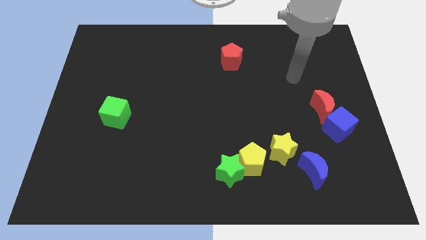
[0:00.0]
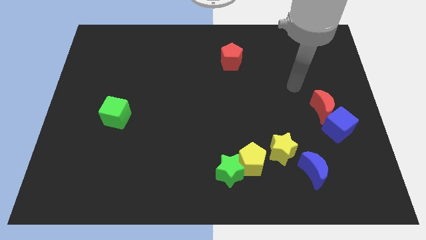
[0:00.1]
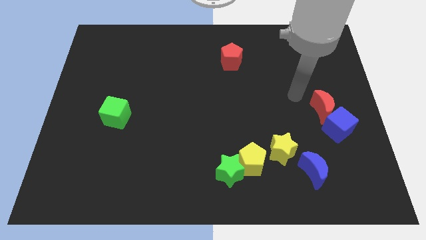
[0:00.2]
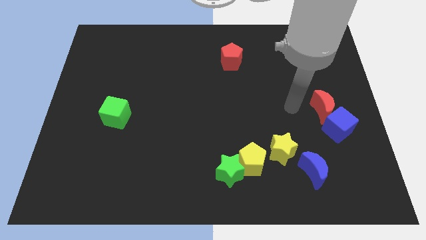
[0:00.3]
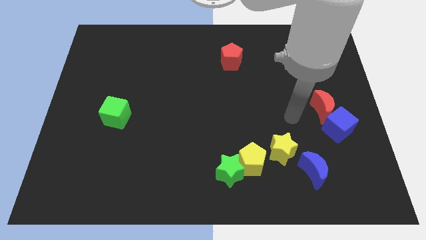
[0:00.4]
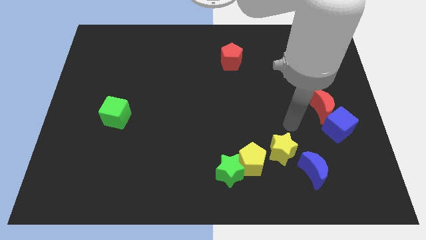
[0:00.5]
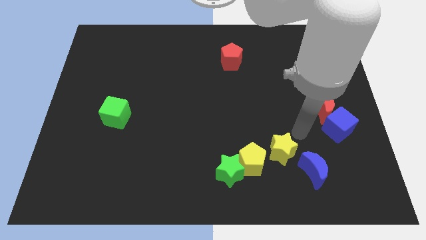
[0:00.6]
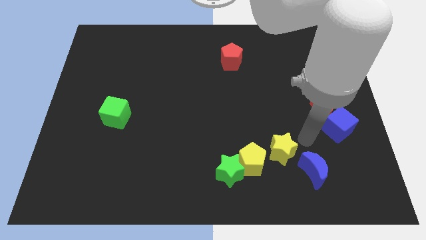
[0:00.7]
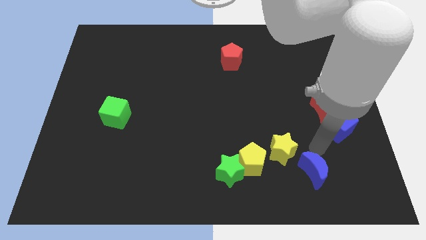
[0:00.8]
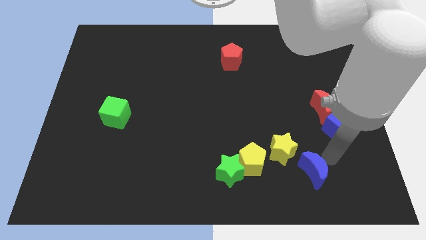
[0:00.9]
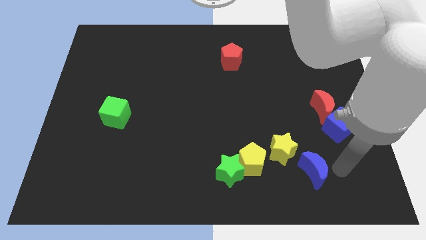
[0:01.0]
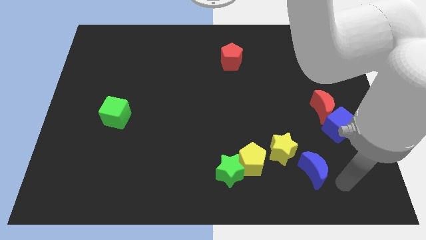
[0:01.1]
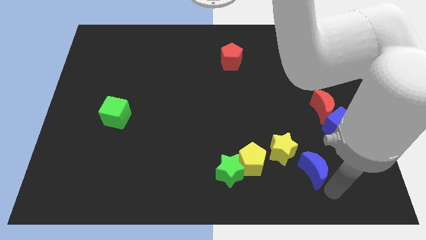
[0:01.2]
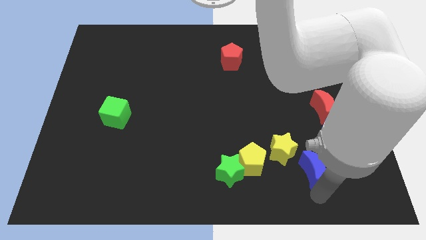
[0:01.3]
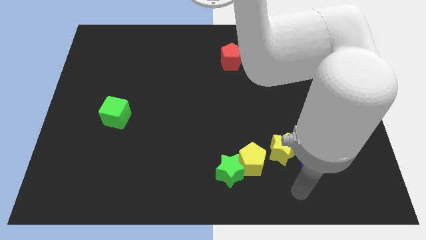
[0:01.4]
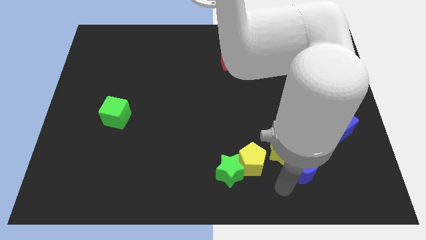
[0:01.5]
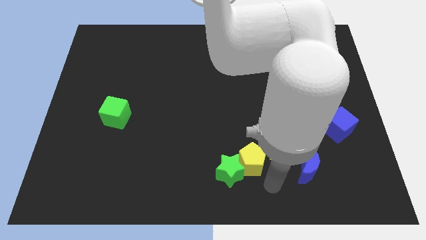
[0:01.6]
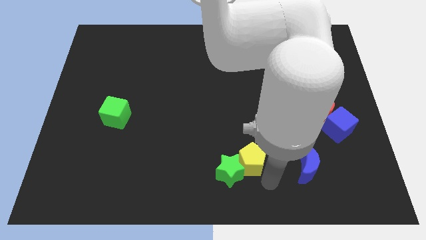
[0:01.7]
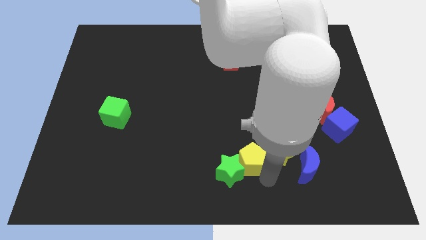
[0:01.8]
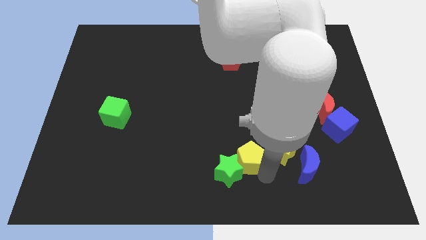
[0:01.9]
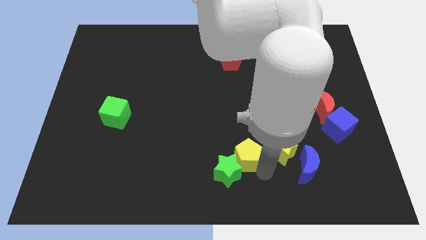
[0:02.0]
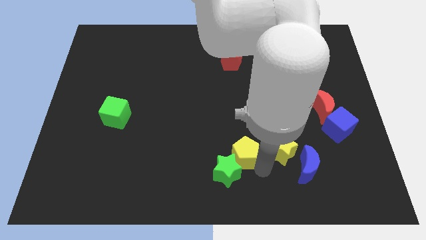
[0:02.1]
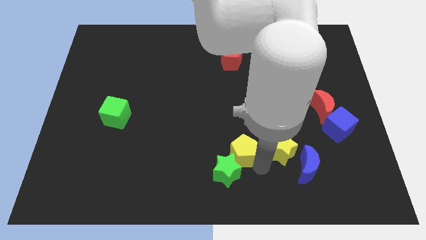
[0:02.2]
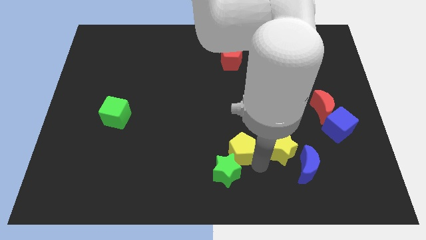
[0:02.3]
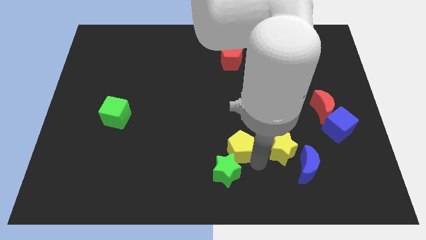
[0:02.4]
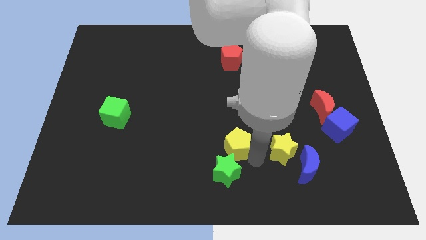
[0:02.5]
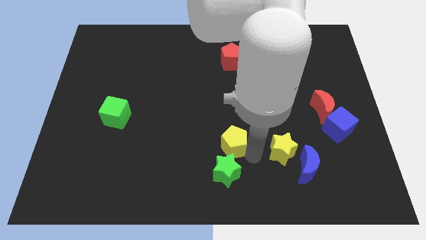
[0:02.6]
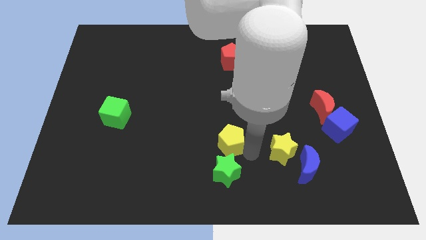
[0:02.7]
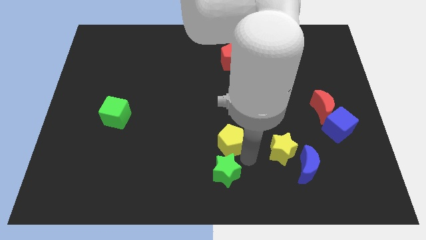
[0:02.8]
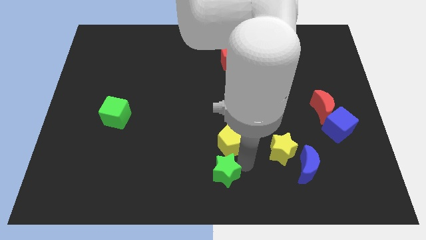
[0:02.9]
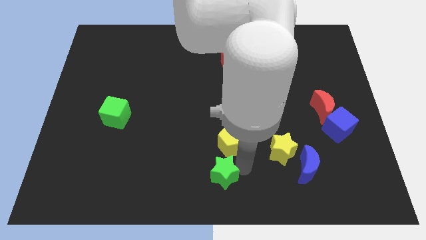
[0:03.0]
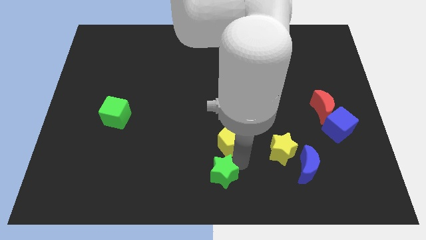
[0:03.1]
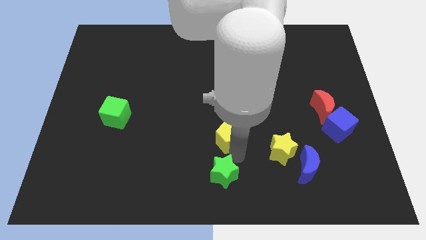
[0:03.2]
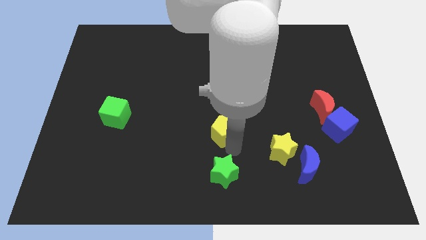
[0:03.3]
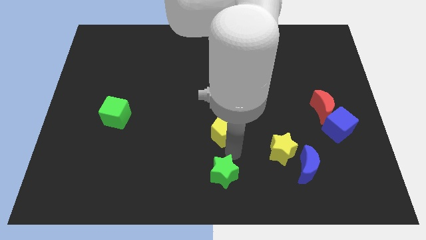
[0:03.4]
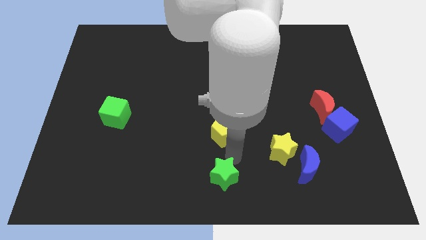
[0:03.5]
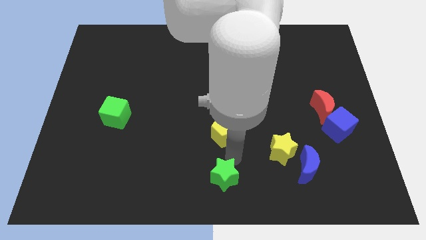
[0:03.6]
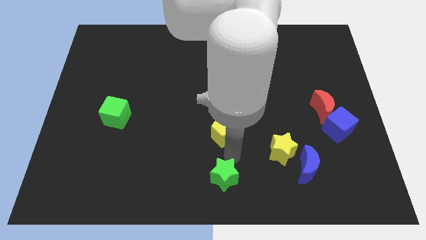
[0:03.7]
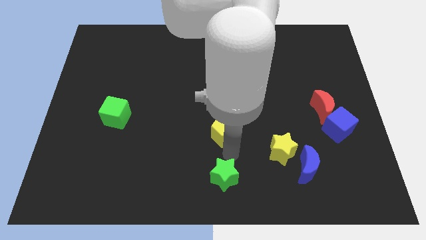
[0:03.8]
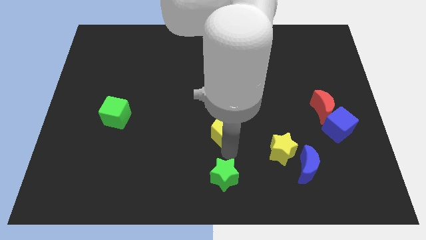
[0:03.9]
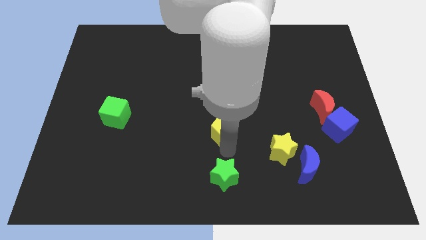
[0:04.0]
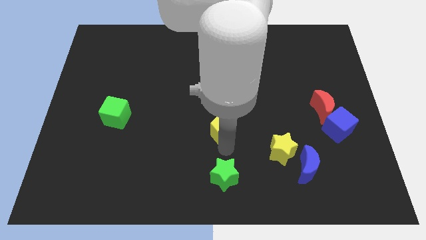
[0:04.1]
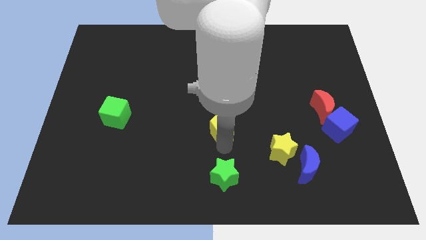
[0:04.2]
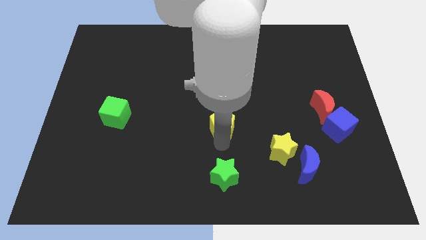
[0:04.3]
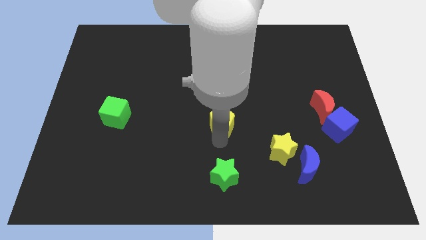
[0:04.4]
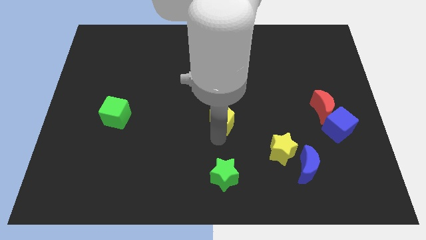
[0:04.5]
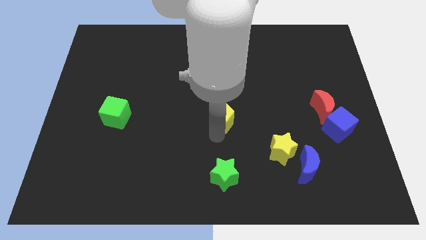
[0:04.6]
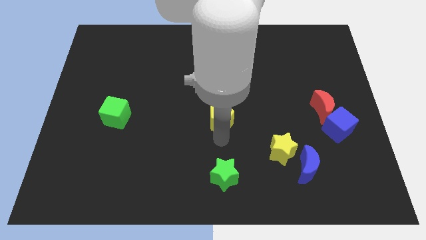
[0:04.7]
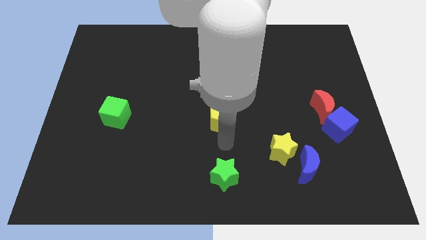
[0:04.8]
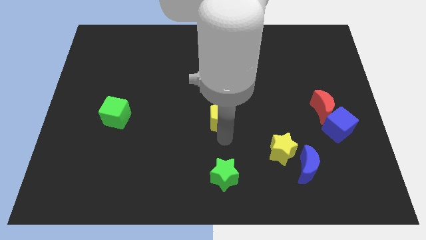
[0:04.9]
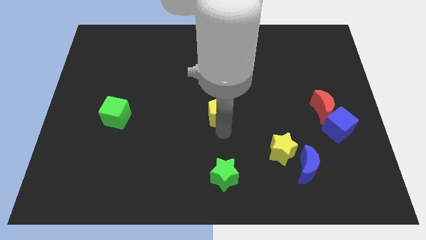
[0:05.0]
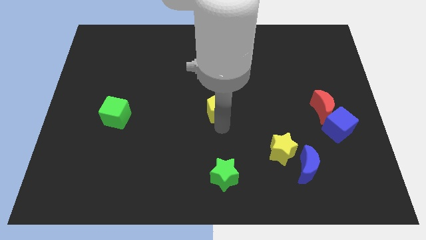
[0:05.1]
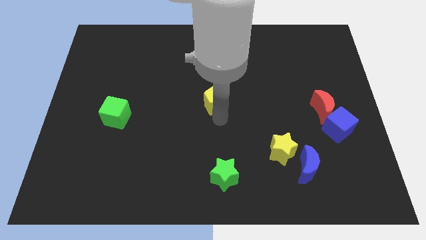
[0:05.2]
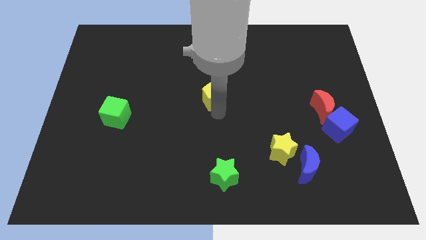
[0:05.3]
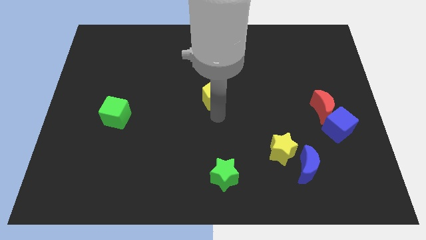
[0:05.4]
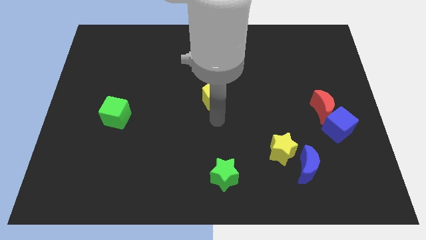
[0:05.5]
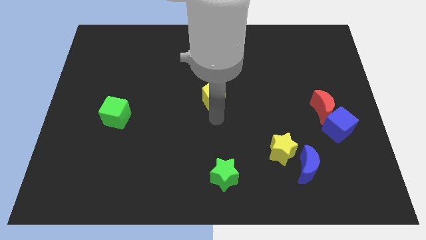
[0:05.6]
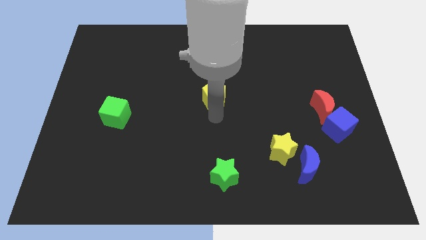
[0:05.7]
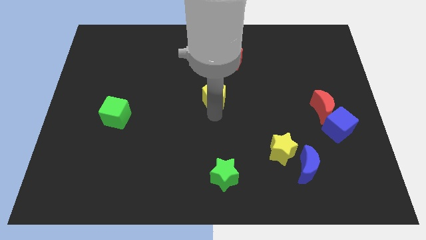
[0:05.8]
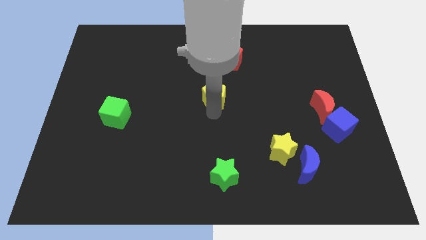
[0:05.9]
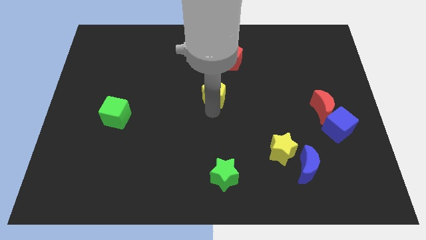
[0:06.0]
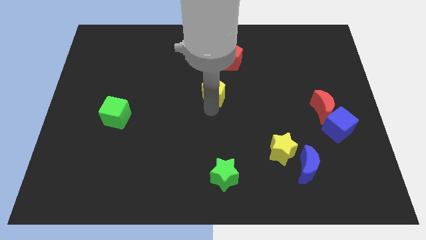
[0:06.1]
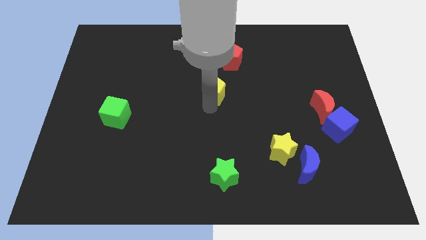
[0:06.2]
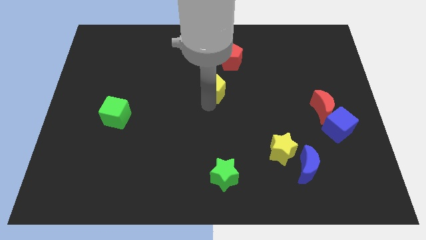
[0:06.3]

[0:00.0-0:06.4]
move the yellow pentagon to the bottom left of the red pentagon

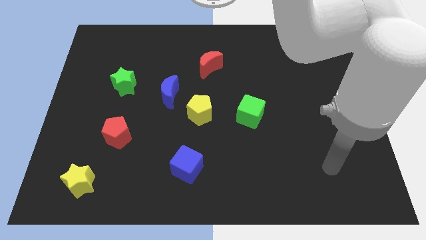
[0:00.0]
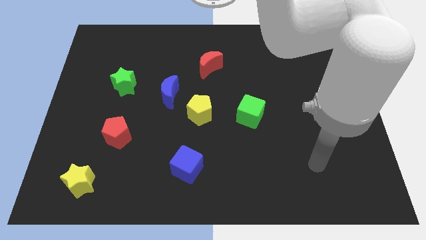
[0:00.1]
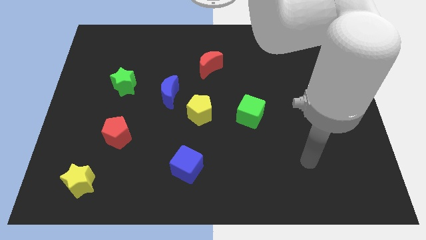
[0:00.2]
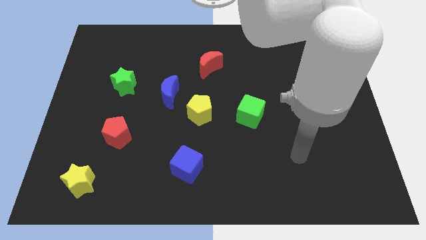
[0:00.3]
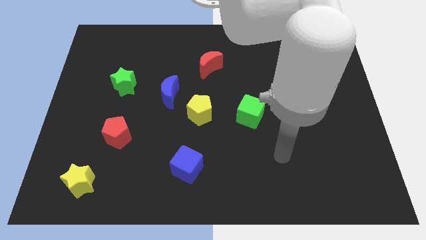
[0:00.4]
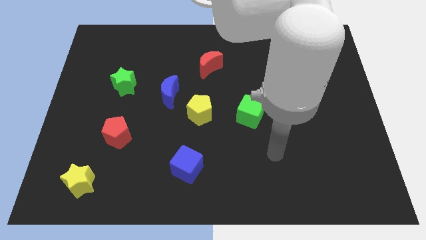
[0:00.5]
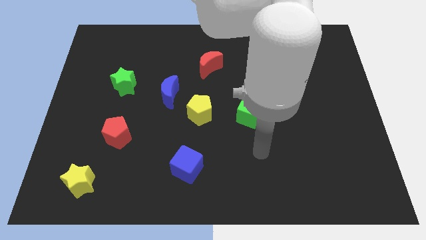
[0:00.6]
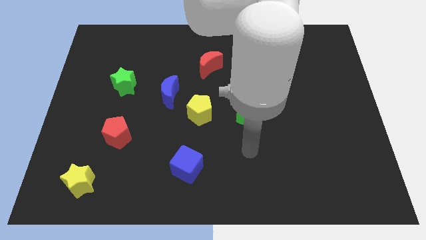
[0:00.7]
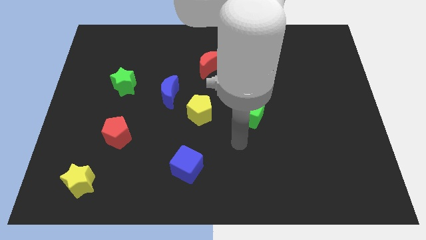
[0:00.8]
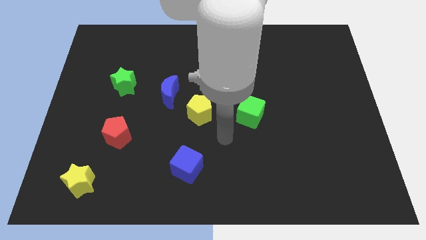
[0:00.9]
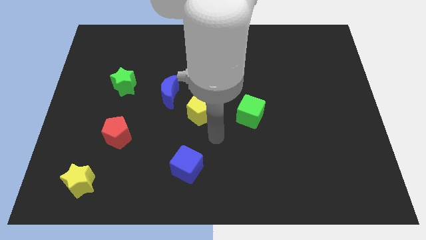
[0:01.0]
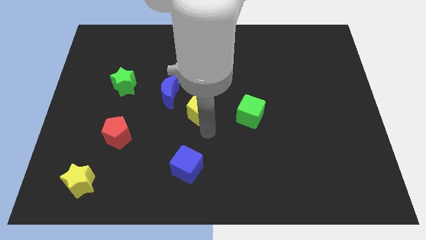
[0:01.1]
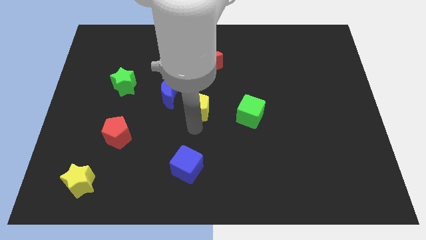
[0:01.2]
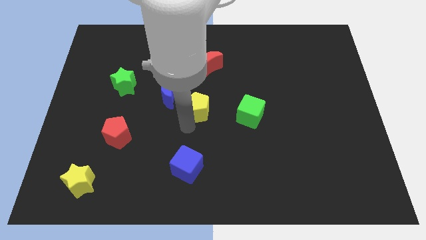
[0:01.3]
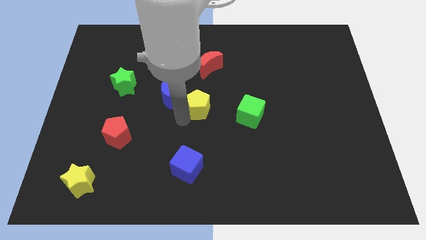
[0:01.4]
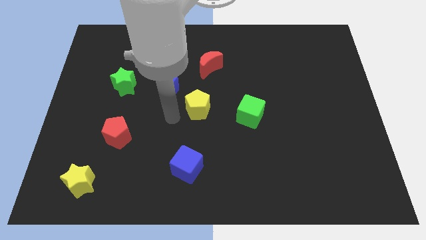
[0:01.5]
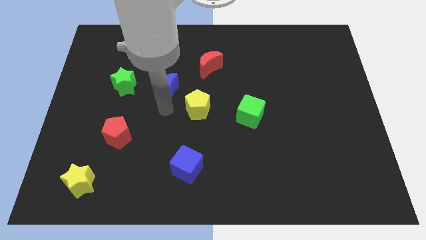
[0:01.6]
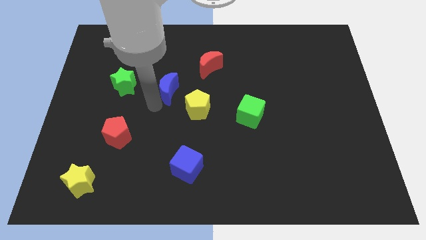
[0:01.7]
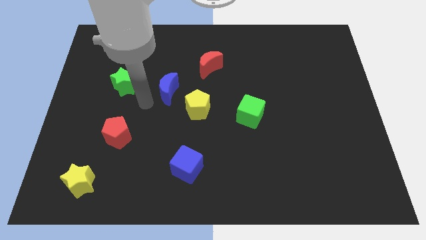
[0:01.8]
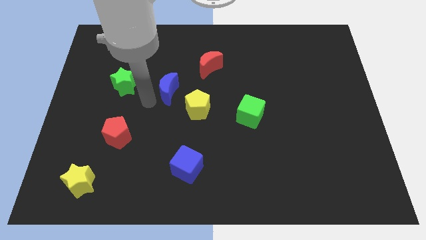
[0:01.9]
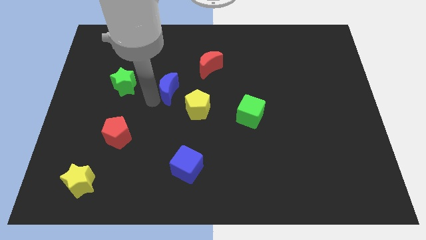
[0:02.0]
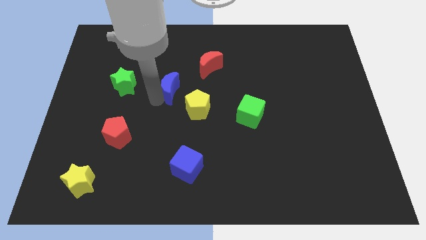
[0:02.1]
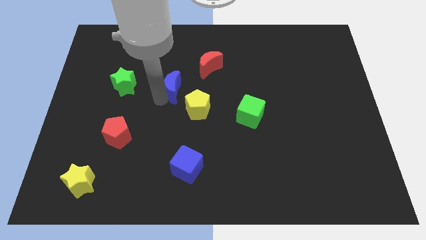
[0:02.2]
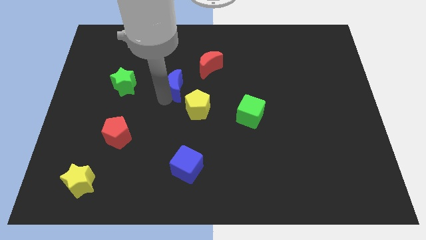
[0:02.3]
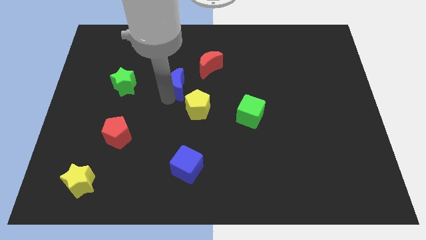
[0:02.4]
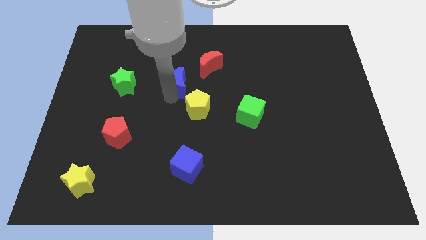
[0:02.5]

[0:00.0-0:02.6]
push the blue moon to the top of the yellow pentagon
